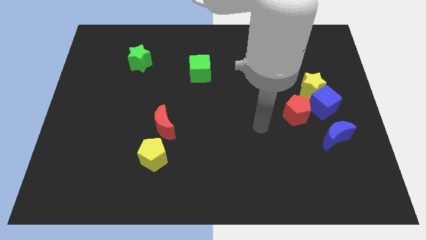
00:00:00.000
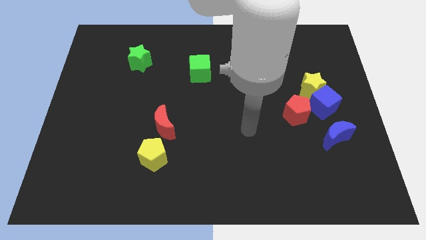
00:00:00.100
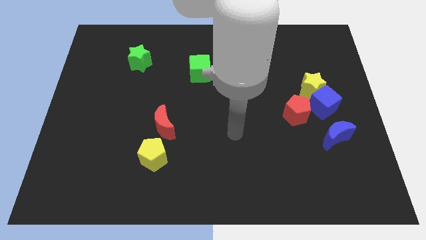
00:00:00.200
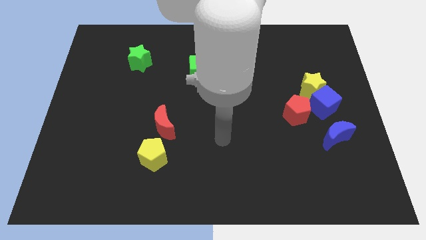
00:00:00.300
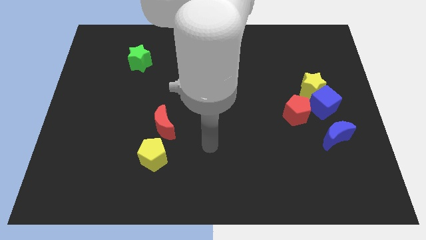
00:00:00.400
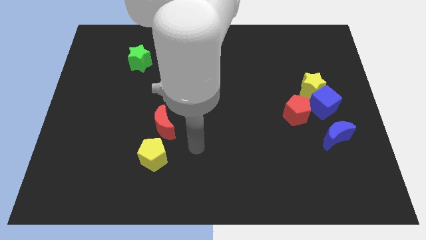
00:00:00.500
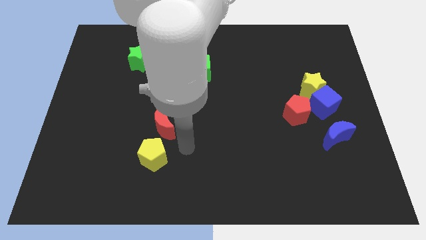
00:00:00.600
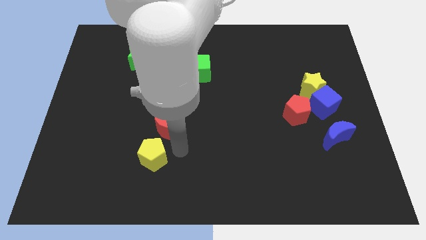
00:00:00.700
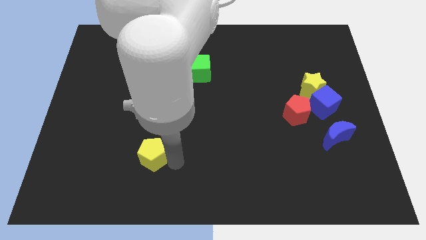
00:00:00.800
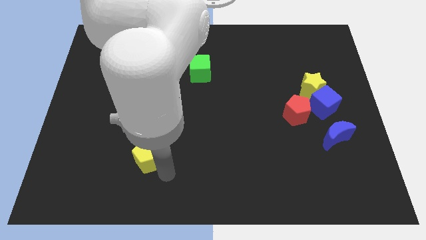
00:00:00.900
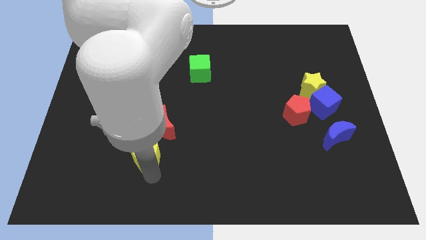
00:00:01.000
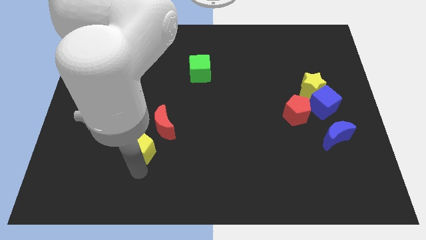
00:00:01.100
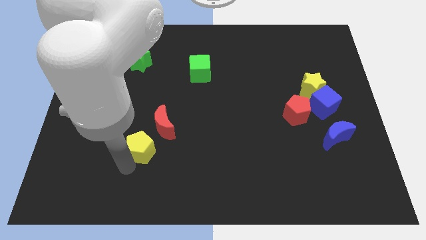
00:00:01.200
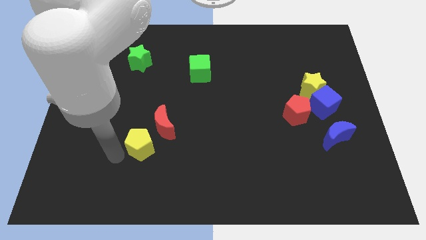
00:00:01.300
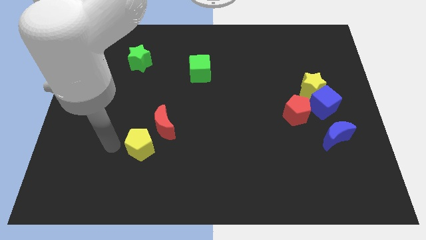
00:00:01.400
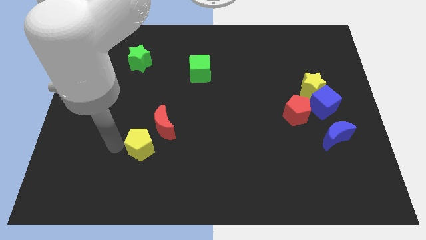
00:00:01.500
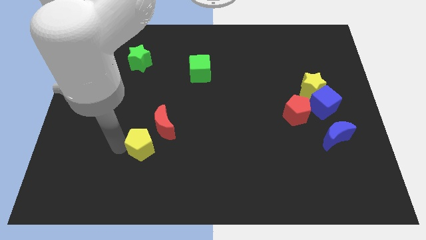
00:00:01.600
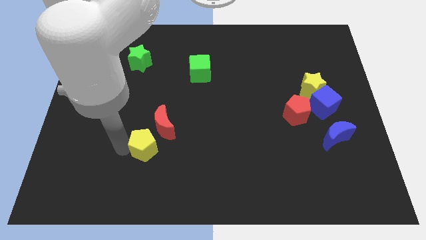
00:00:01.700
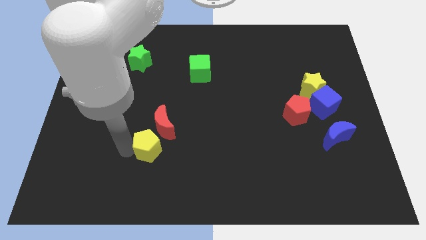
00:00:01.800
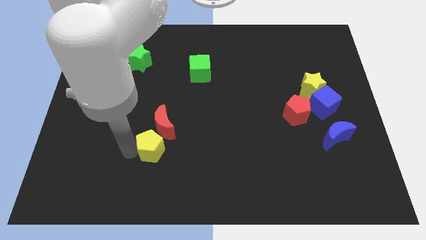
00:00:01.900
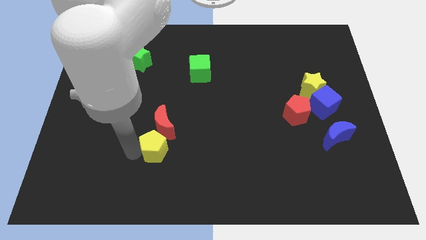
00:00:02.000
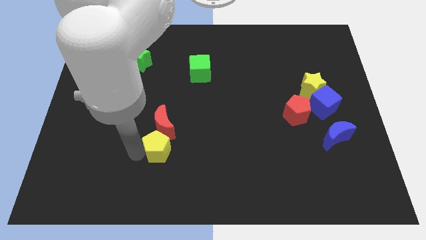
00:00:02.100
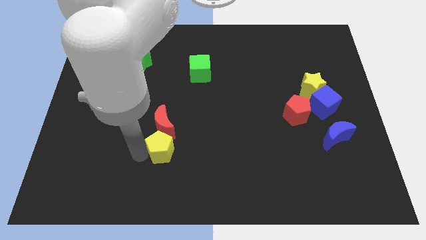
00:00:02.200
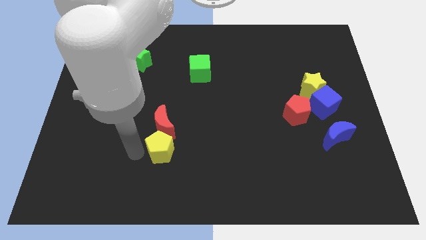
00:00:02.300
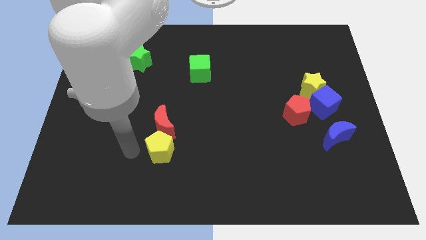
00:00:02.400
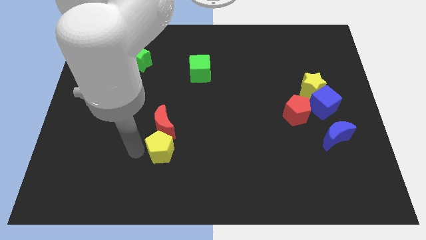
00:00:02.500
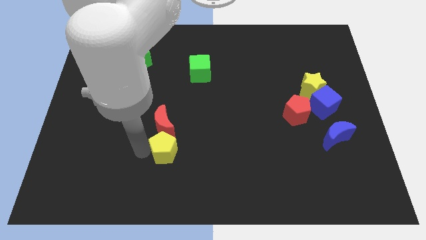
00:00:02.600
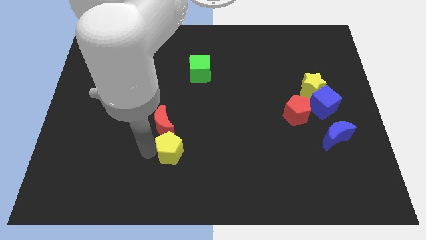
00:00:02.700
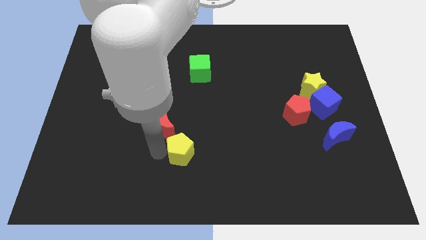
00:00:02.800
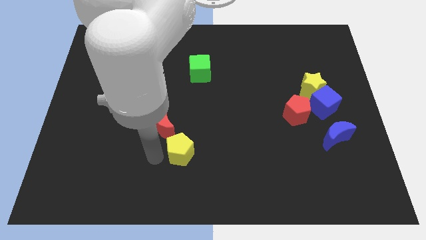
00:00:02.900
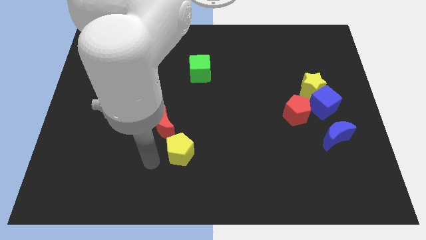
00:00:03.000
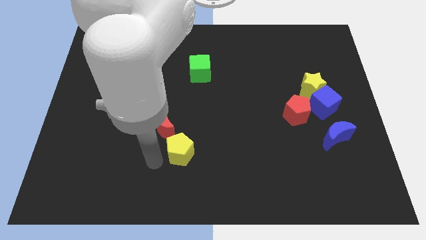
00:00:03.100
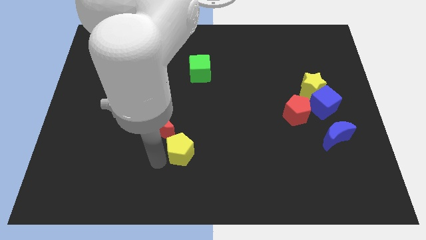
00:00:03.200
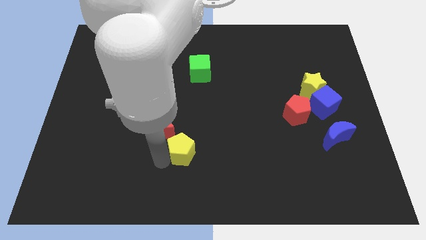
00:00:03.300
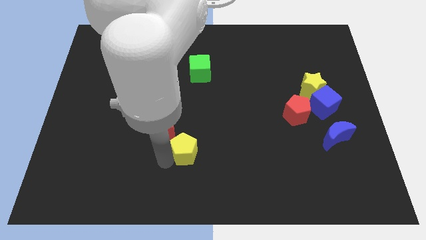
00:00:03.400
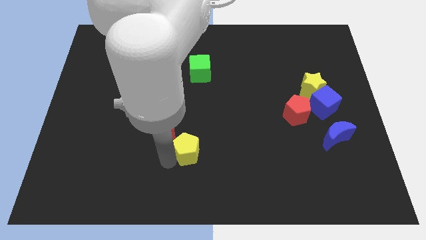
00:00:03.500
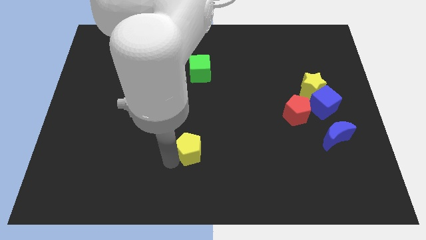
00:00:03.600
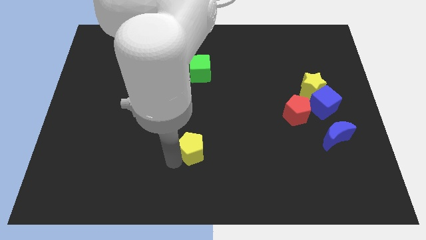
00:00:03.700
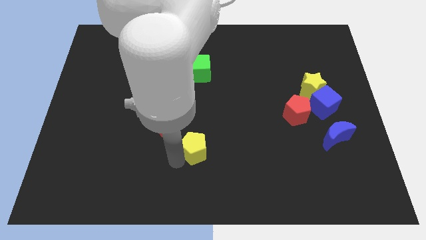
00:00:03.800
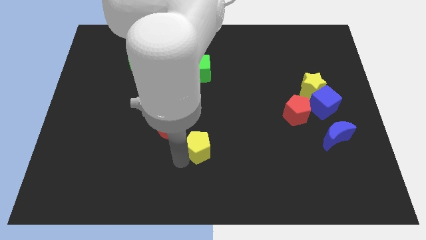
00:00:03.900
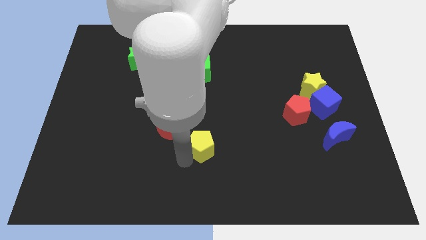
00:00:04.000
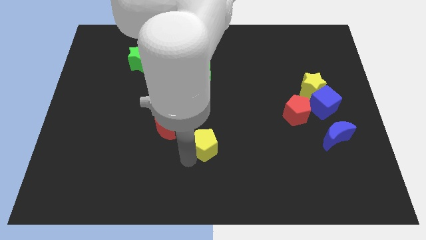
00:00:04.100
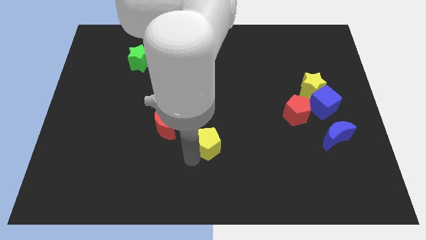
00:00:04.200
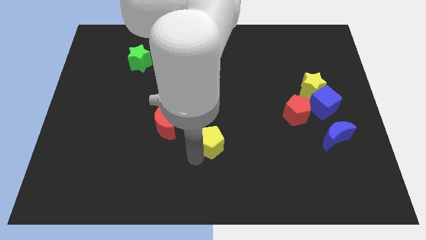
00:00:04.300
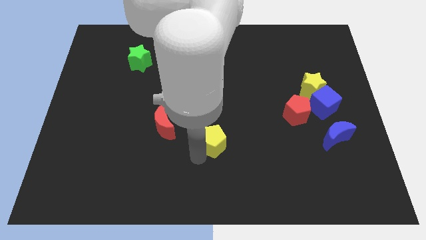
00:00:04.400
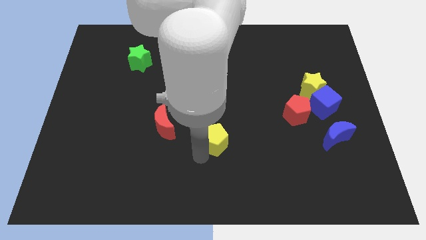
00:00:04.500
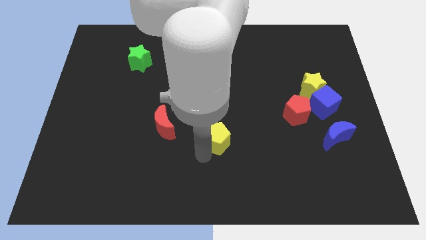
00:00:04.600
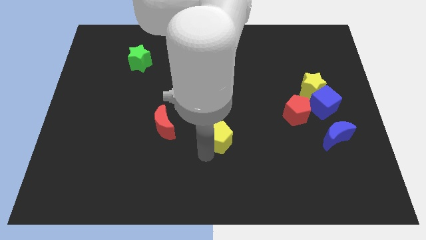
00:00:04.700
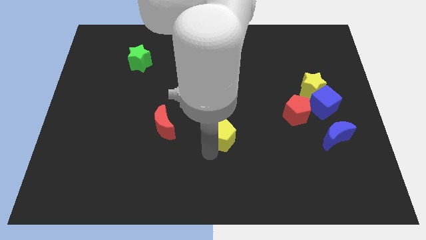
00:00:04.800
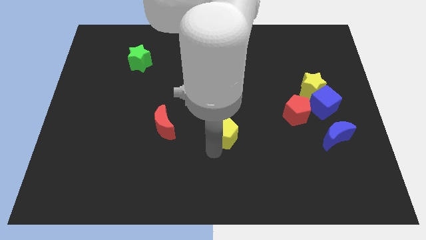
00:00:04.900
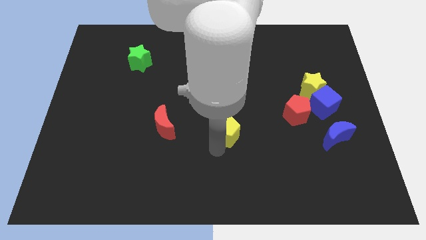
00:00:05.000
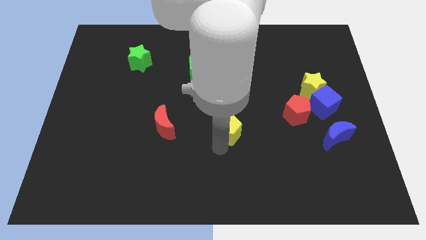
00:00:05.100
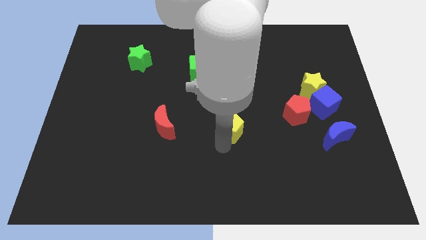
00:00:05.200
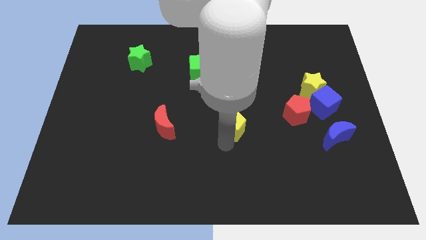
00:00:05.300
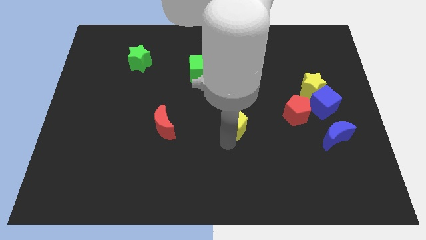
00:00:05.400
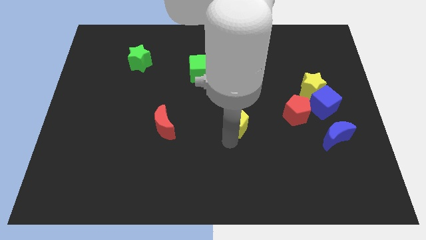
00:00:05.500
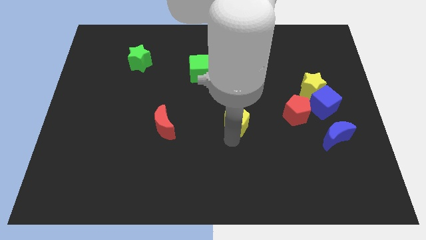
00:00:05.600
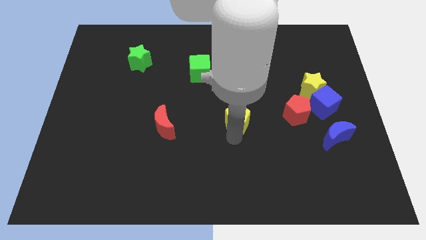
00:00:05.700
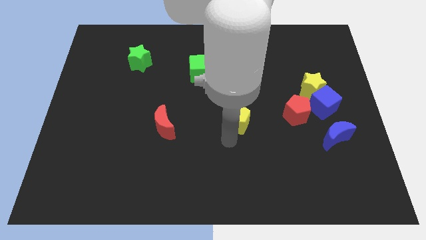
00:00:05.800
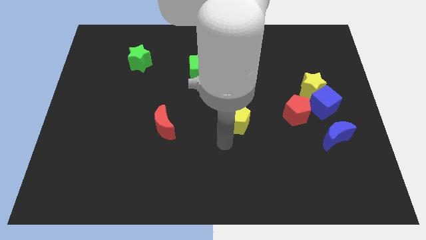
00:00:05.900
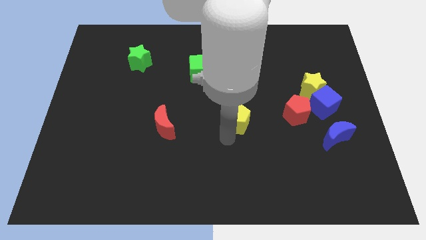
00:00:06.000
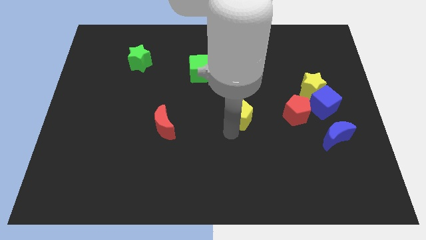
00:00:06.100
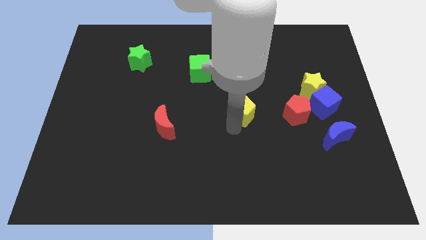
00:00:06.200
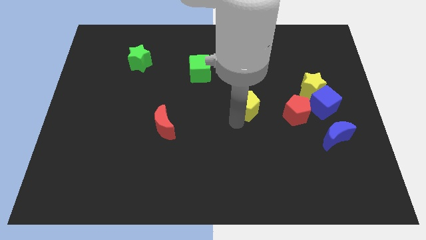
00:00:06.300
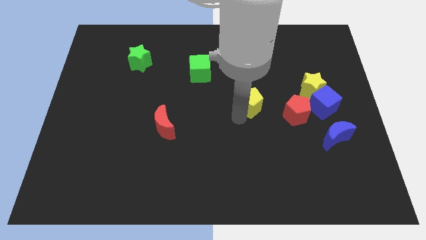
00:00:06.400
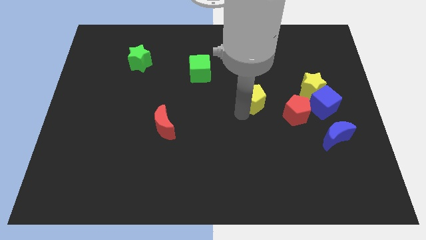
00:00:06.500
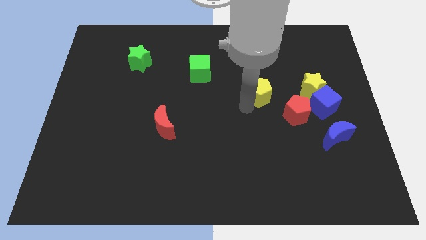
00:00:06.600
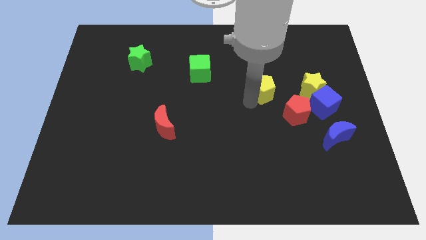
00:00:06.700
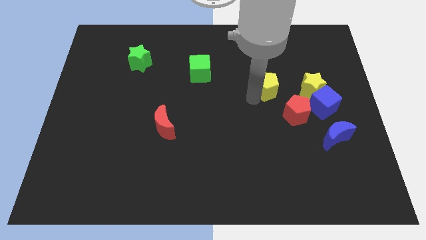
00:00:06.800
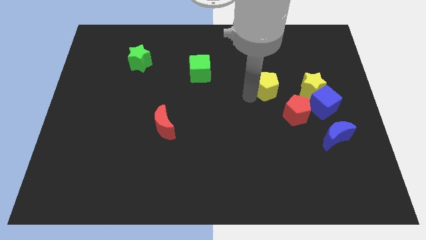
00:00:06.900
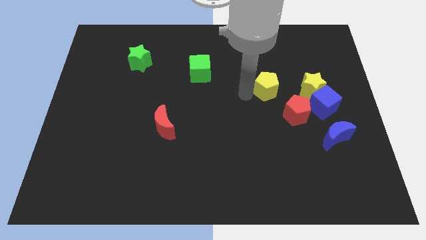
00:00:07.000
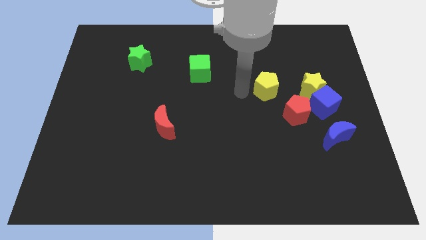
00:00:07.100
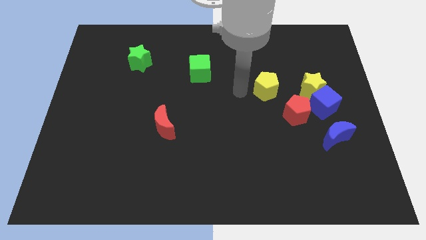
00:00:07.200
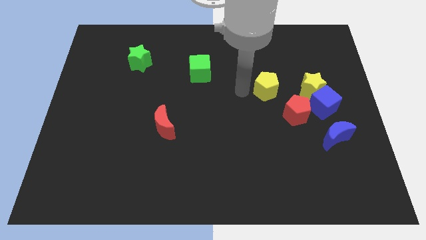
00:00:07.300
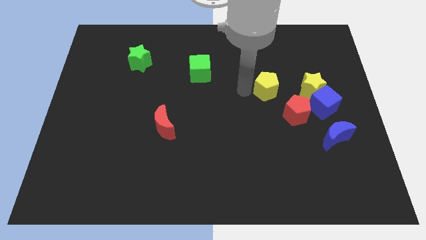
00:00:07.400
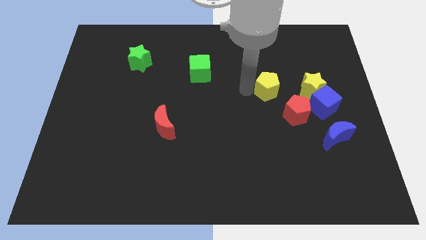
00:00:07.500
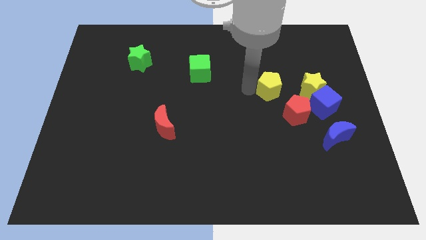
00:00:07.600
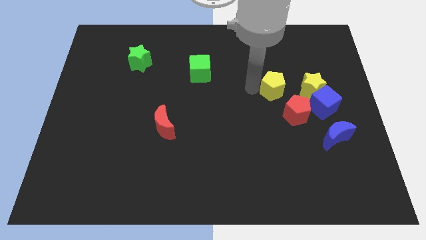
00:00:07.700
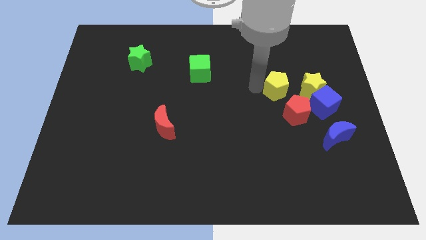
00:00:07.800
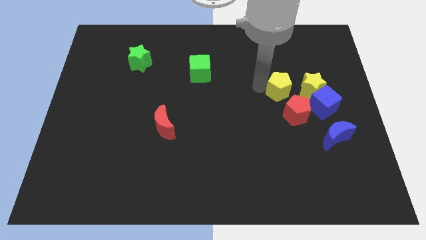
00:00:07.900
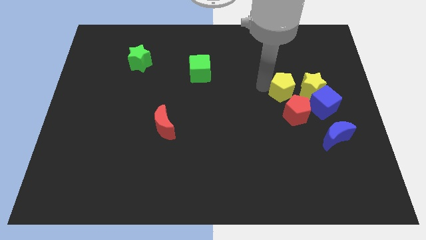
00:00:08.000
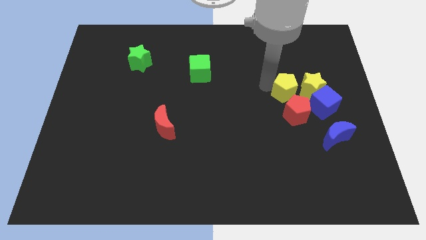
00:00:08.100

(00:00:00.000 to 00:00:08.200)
push the yellow pentagon close to the yellow star
